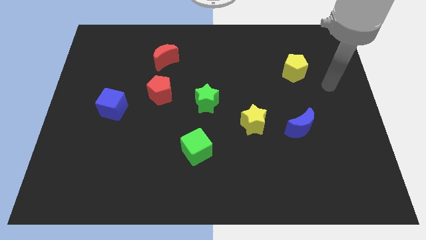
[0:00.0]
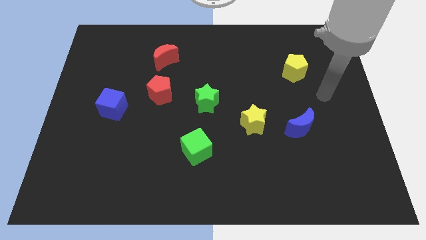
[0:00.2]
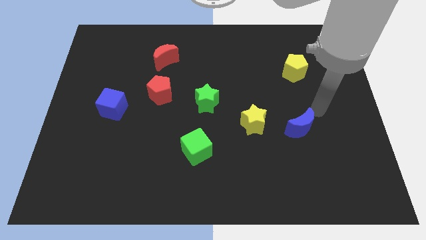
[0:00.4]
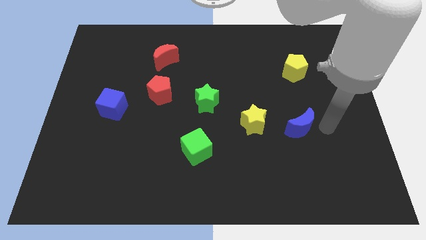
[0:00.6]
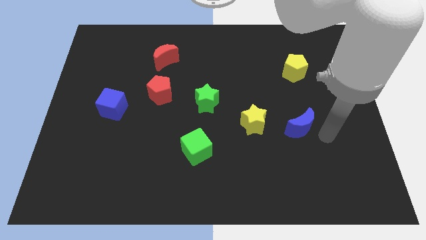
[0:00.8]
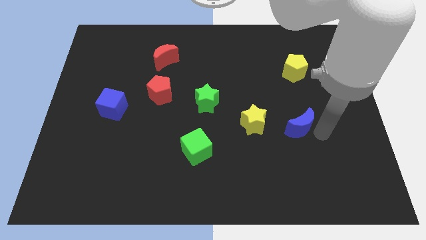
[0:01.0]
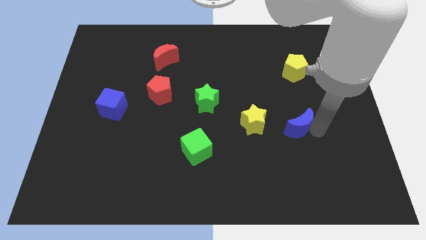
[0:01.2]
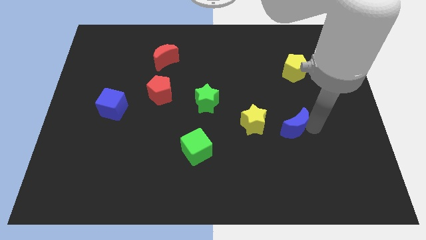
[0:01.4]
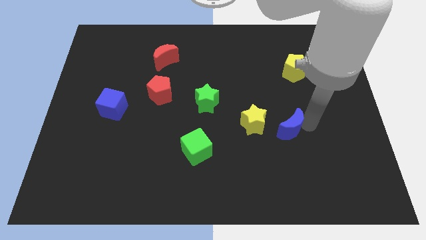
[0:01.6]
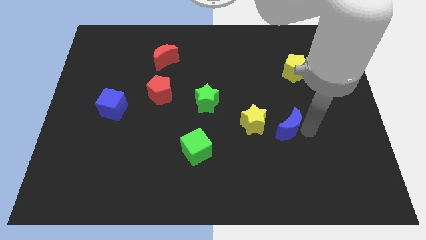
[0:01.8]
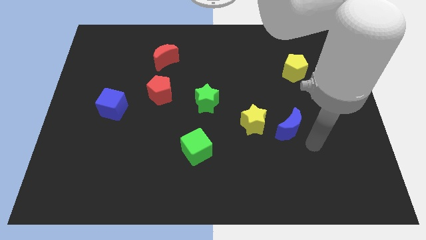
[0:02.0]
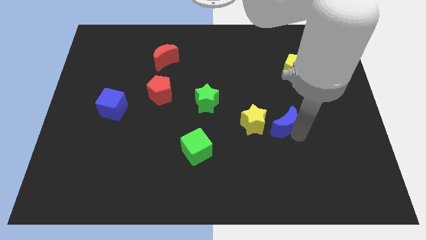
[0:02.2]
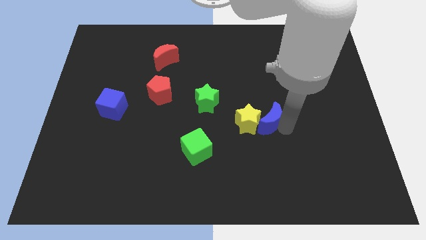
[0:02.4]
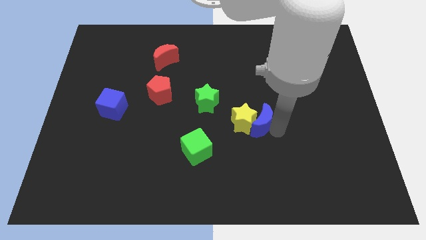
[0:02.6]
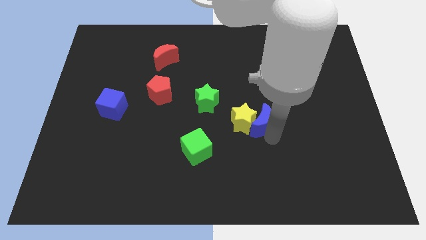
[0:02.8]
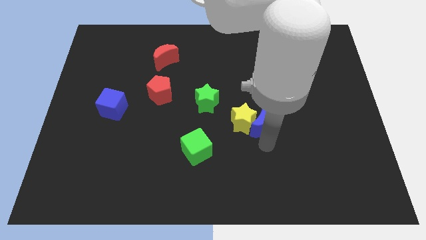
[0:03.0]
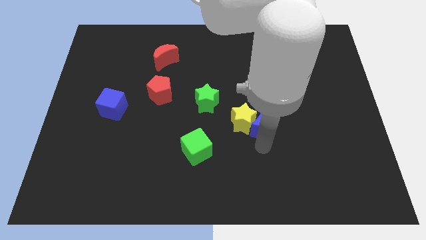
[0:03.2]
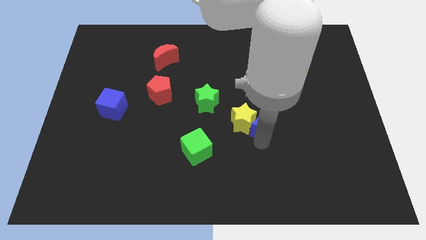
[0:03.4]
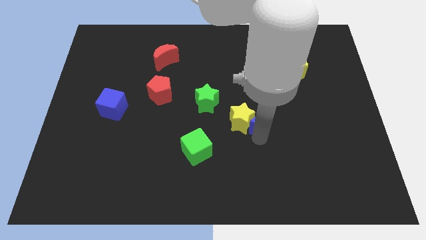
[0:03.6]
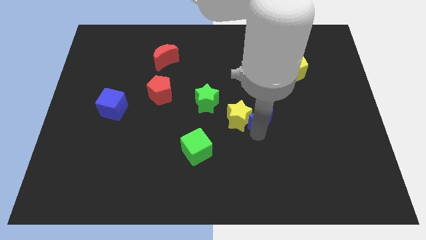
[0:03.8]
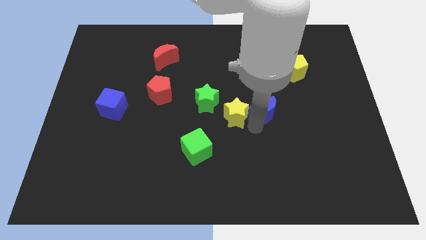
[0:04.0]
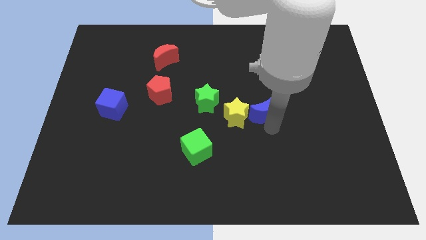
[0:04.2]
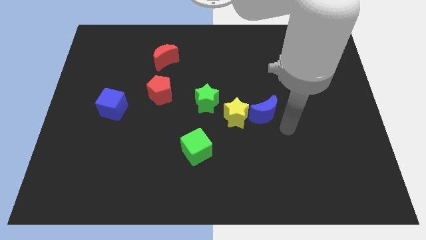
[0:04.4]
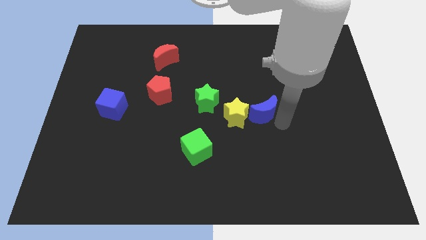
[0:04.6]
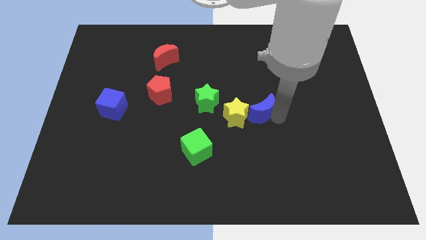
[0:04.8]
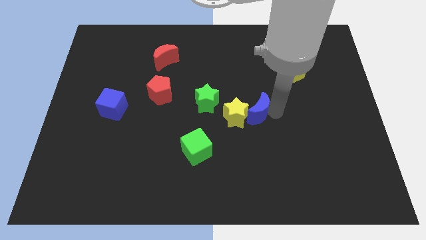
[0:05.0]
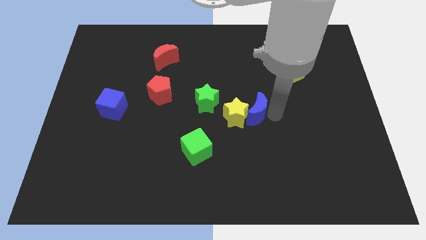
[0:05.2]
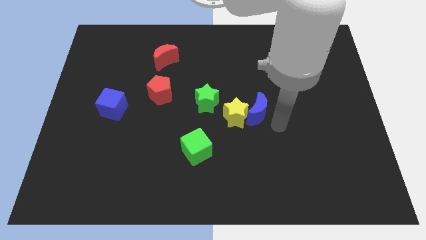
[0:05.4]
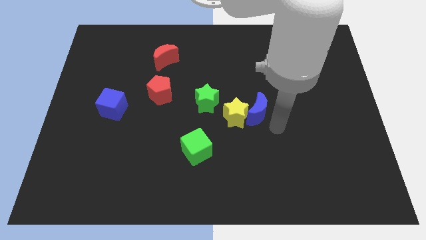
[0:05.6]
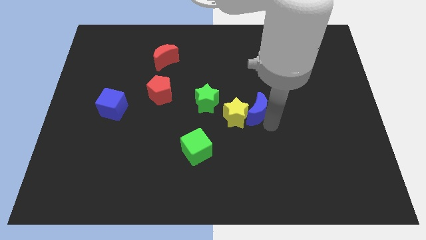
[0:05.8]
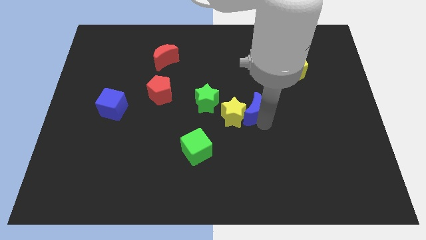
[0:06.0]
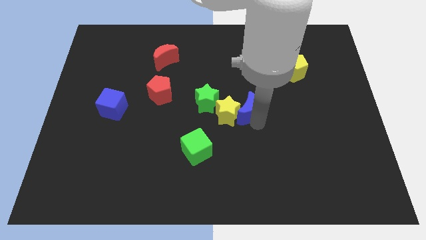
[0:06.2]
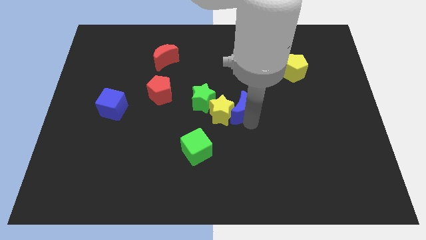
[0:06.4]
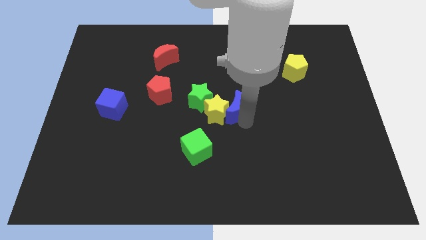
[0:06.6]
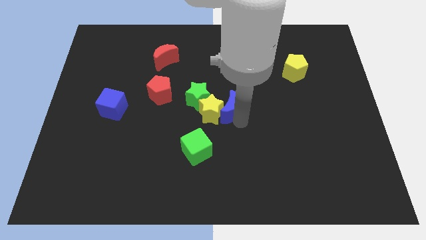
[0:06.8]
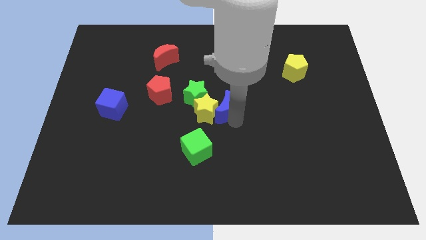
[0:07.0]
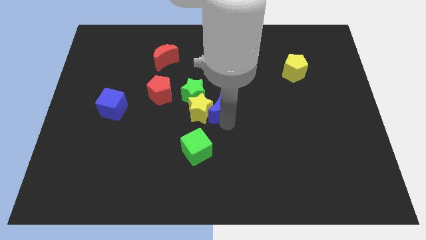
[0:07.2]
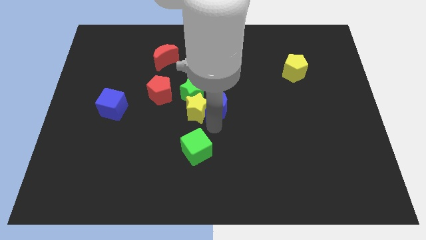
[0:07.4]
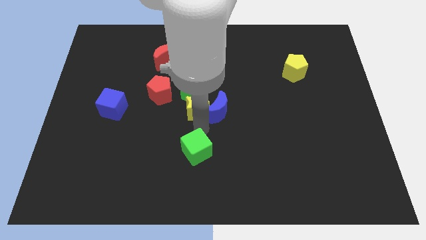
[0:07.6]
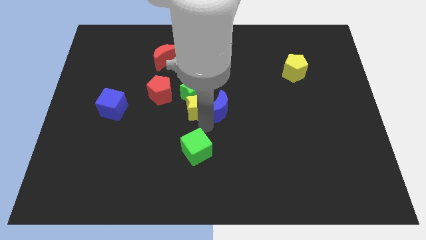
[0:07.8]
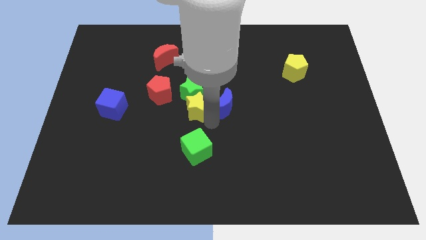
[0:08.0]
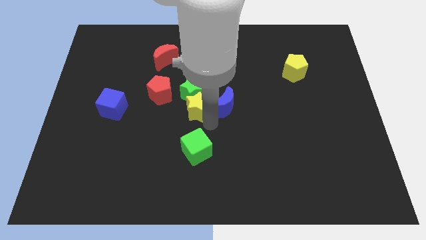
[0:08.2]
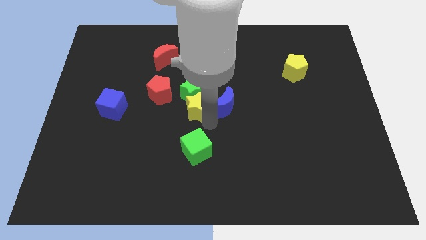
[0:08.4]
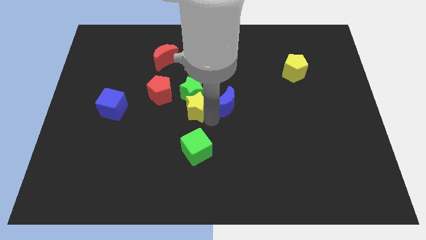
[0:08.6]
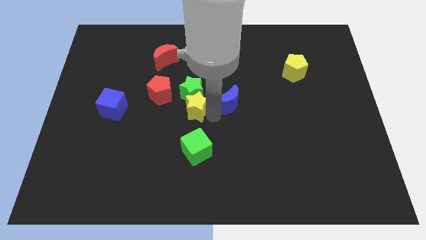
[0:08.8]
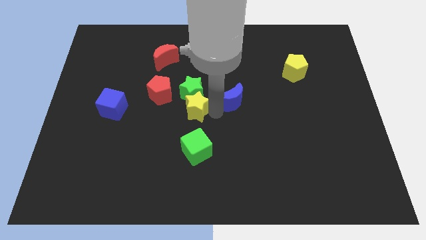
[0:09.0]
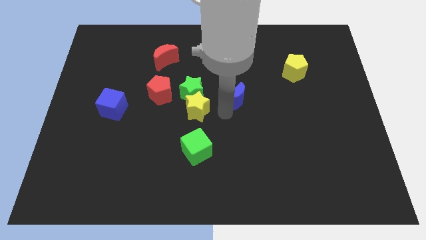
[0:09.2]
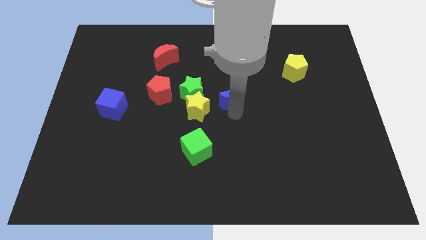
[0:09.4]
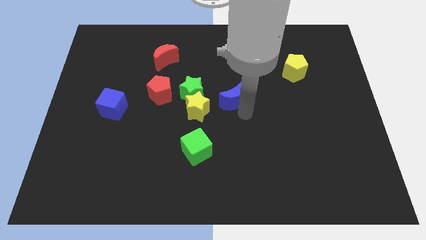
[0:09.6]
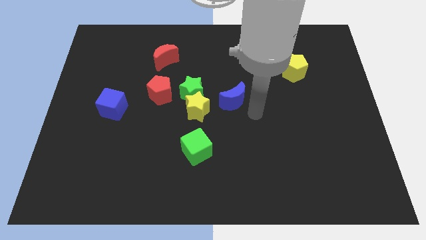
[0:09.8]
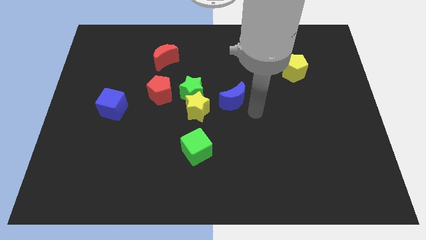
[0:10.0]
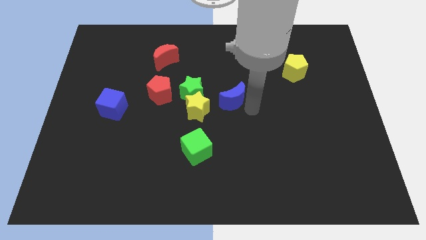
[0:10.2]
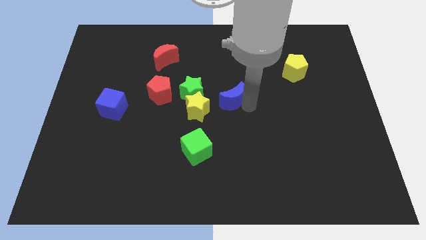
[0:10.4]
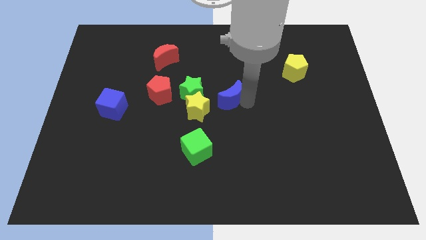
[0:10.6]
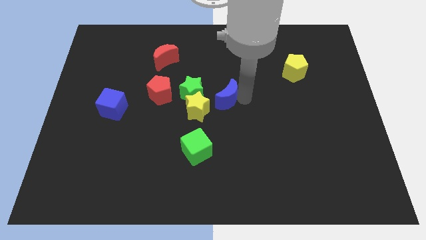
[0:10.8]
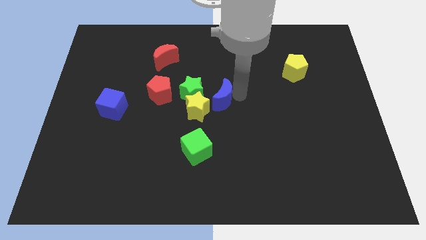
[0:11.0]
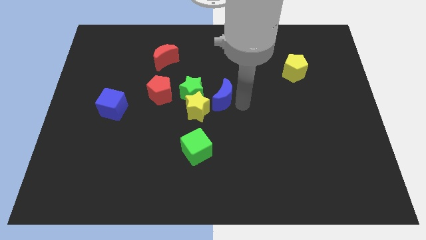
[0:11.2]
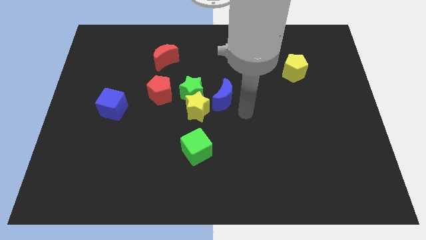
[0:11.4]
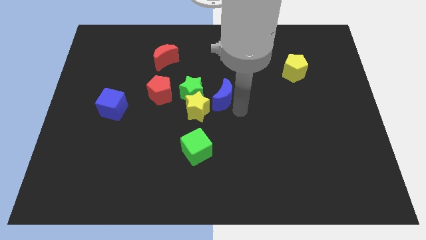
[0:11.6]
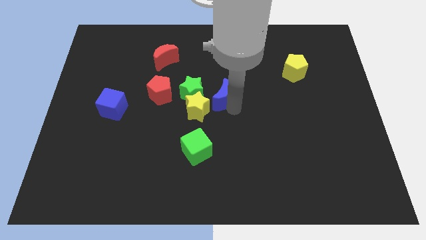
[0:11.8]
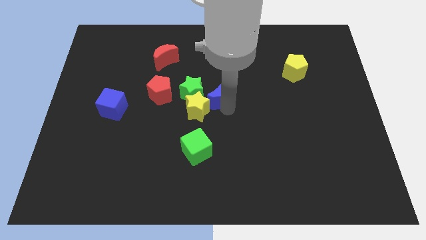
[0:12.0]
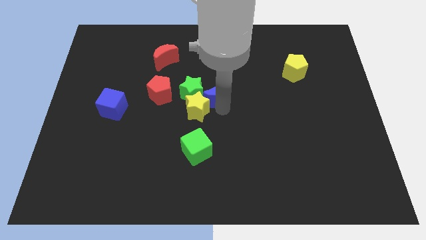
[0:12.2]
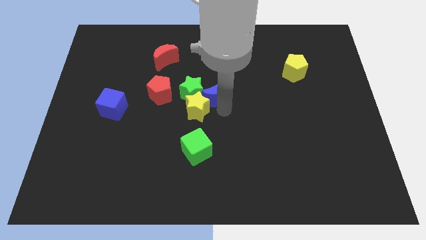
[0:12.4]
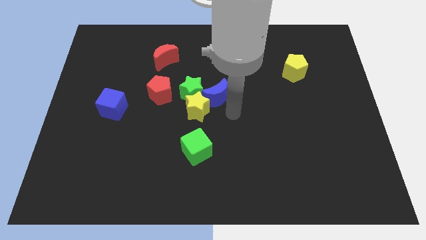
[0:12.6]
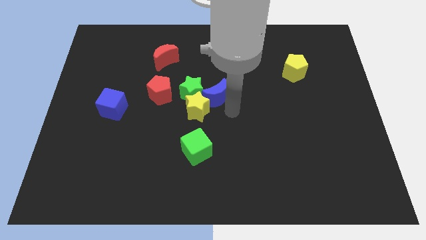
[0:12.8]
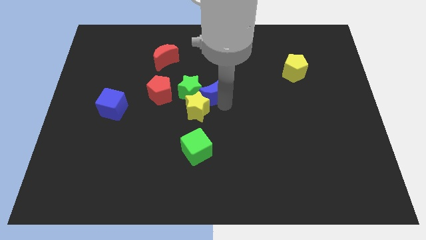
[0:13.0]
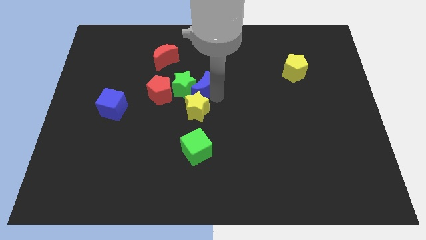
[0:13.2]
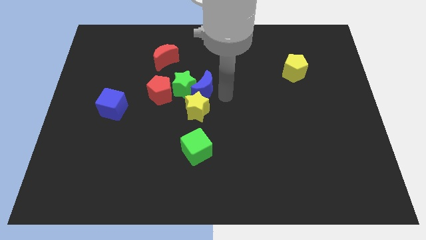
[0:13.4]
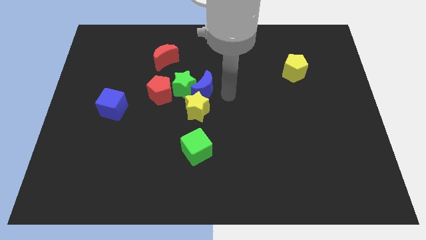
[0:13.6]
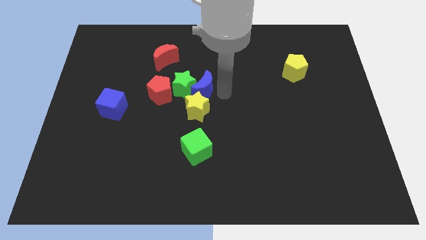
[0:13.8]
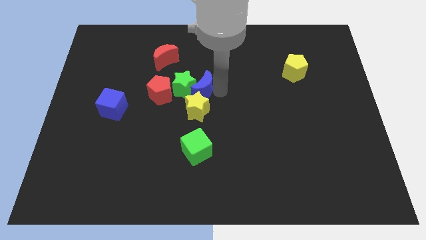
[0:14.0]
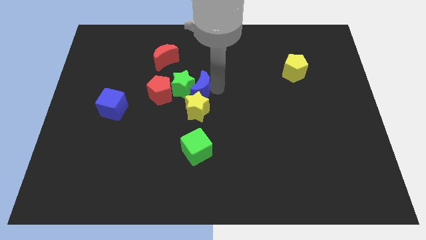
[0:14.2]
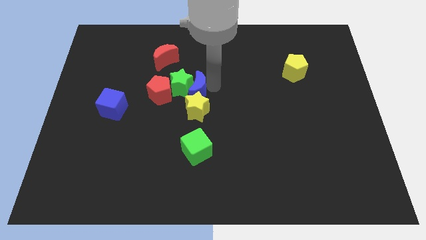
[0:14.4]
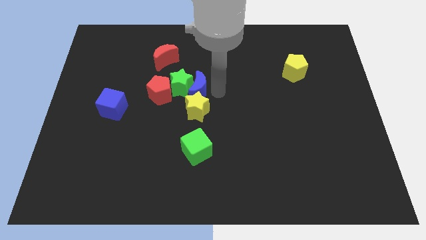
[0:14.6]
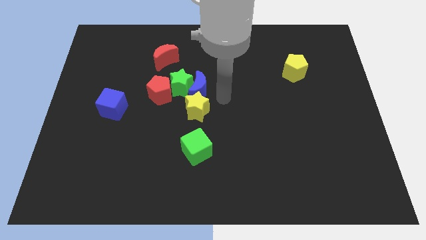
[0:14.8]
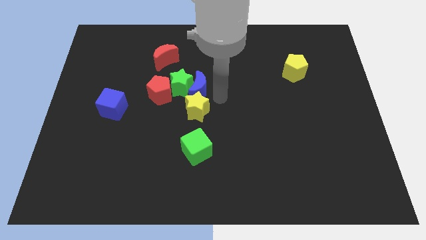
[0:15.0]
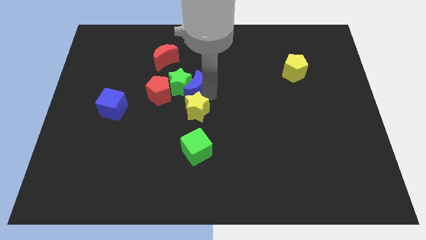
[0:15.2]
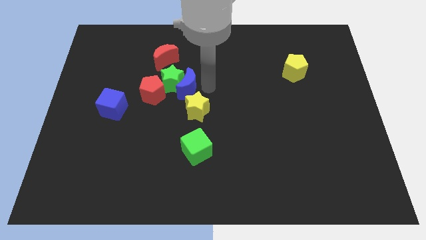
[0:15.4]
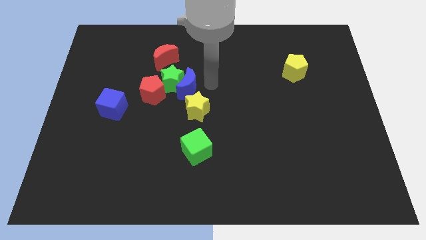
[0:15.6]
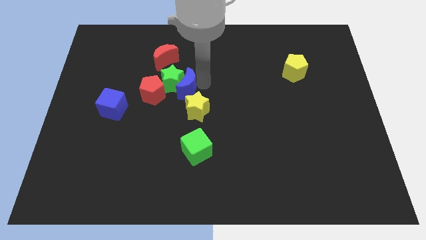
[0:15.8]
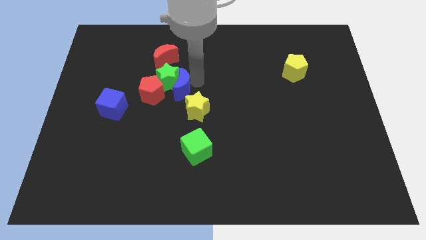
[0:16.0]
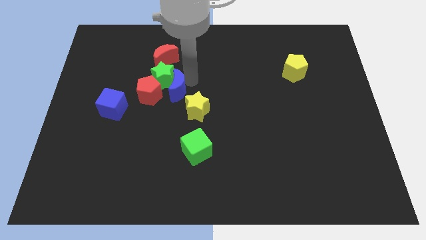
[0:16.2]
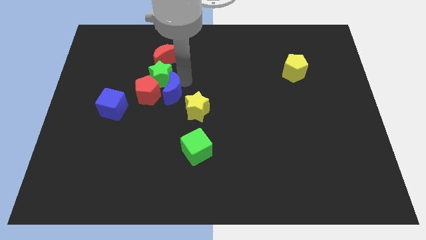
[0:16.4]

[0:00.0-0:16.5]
slide the blue moon close to the red pentagon
